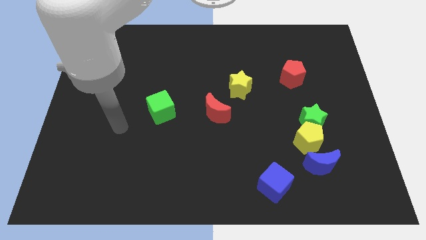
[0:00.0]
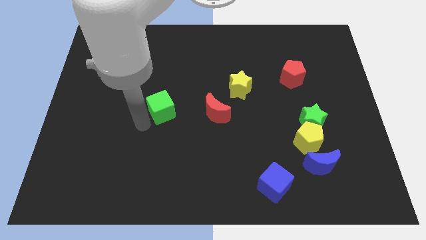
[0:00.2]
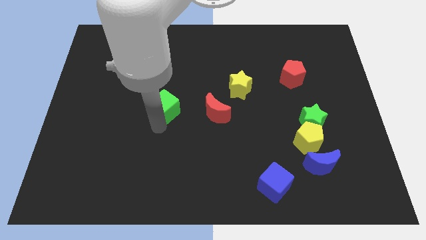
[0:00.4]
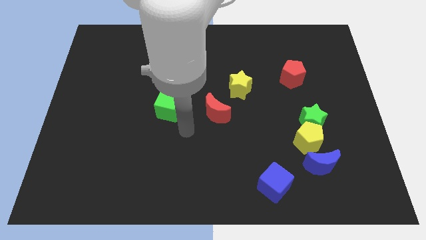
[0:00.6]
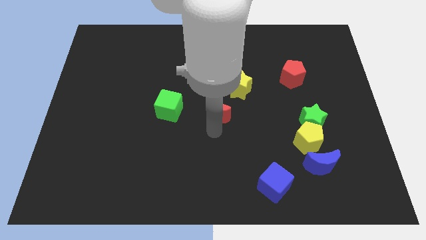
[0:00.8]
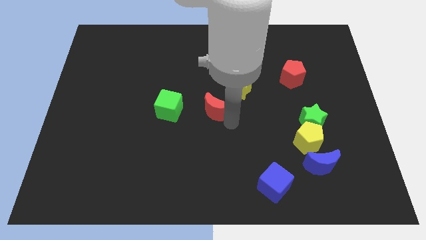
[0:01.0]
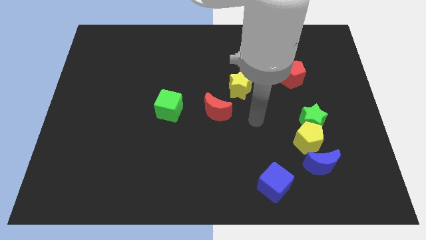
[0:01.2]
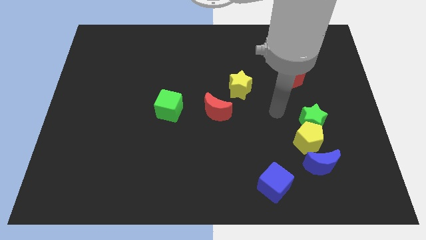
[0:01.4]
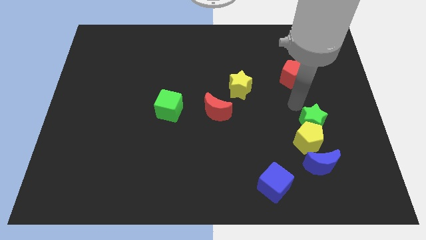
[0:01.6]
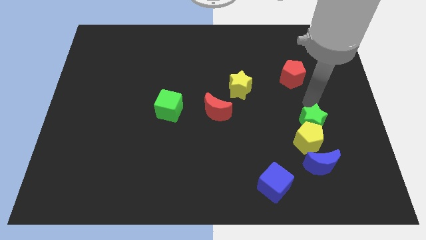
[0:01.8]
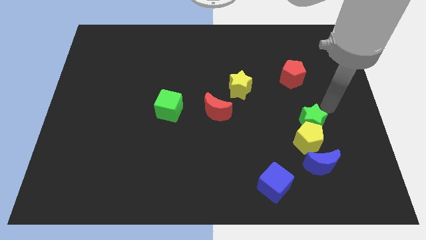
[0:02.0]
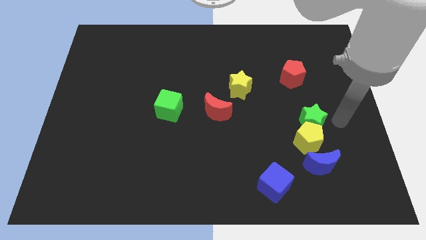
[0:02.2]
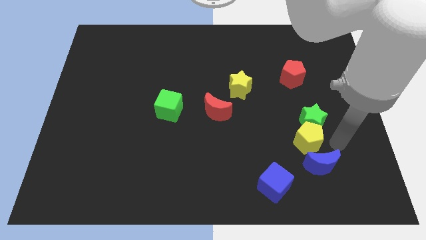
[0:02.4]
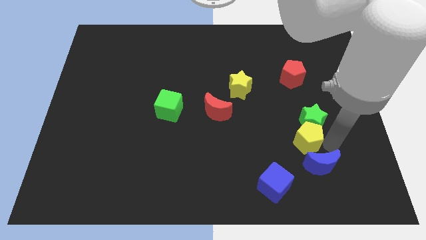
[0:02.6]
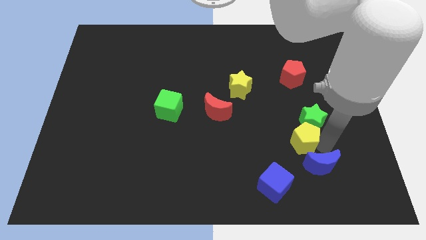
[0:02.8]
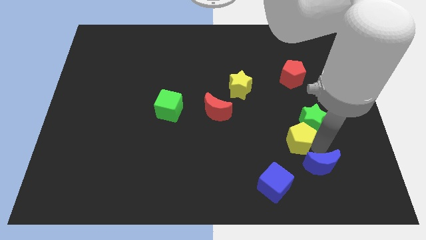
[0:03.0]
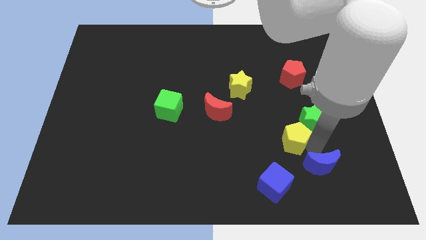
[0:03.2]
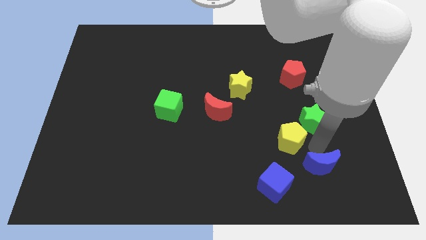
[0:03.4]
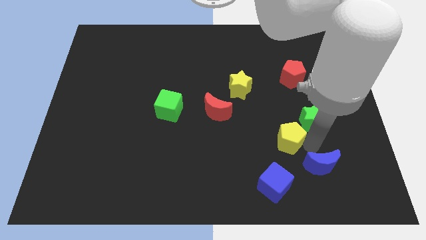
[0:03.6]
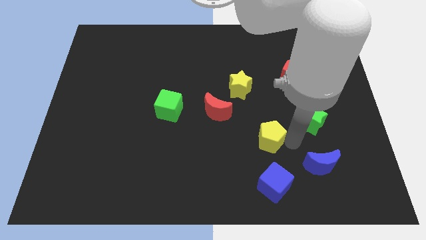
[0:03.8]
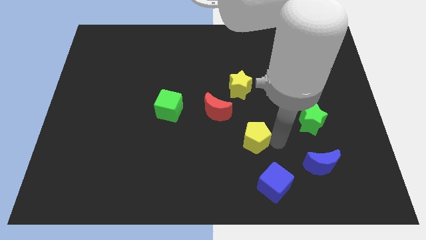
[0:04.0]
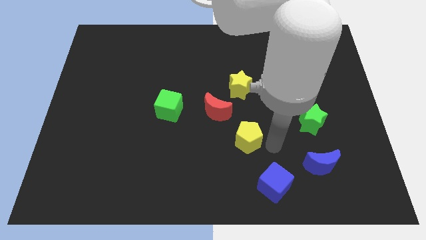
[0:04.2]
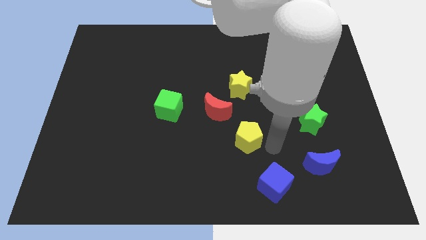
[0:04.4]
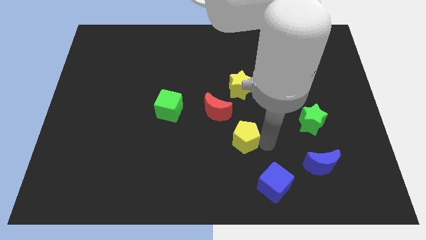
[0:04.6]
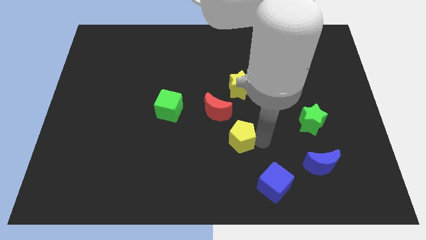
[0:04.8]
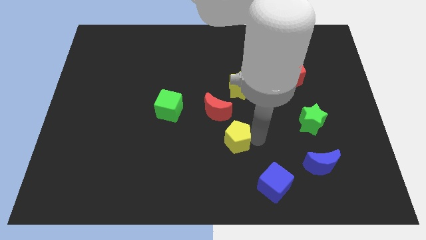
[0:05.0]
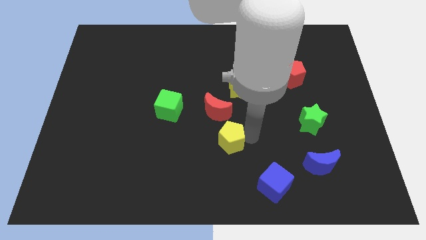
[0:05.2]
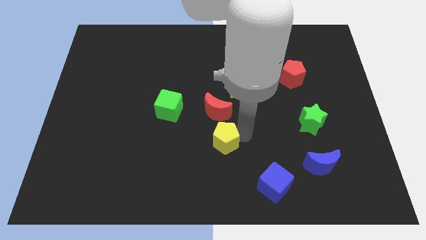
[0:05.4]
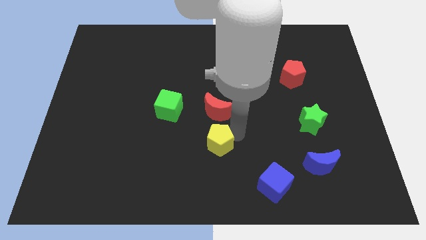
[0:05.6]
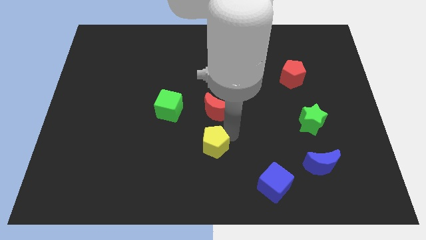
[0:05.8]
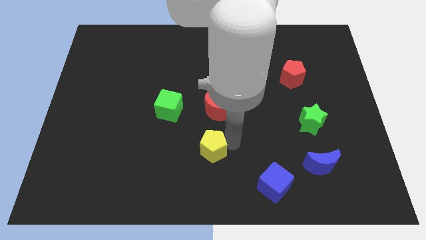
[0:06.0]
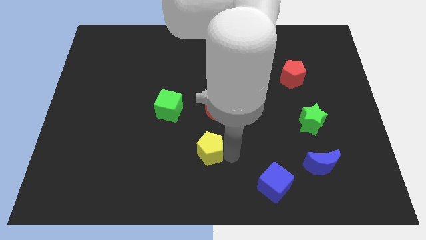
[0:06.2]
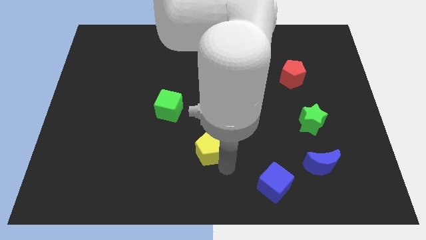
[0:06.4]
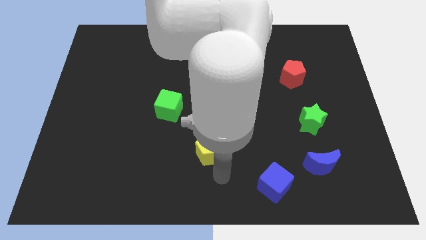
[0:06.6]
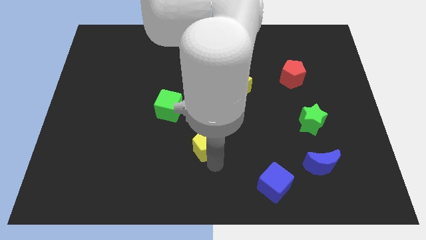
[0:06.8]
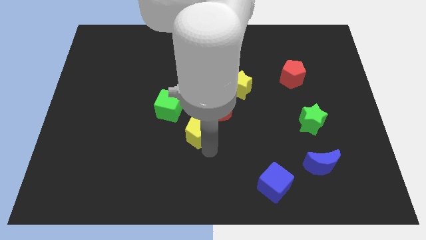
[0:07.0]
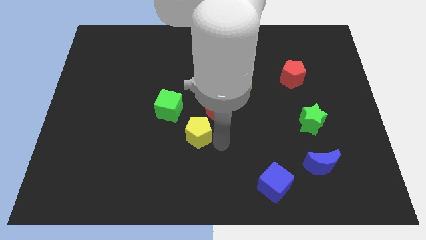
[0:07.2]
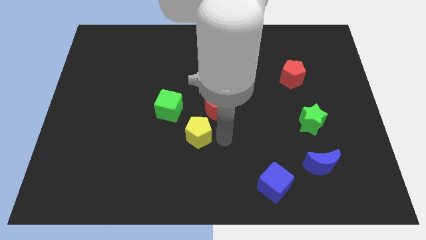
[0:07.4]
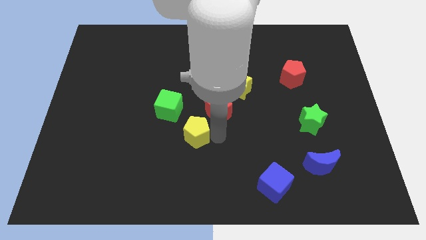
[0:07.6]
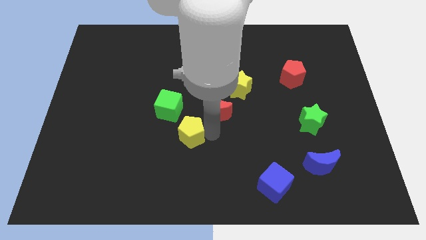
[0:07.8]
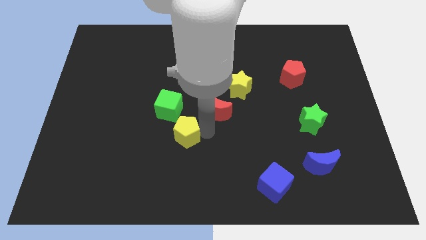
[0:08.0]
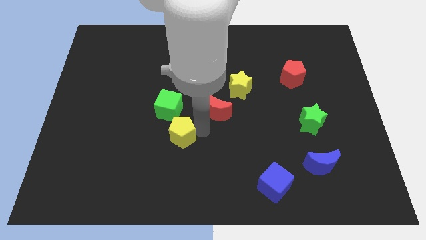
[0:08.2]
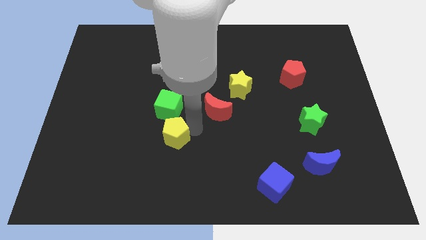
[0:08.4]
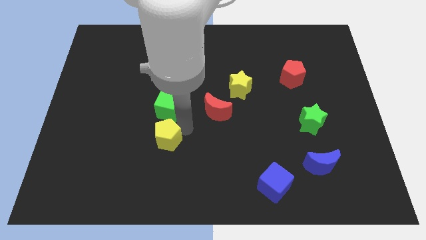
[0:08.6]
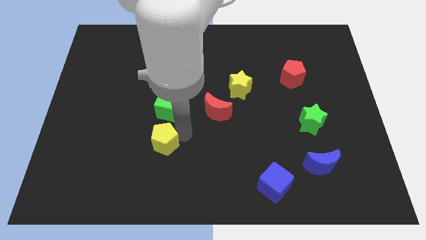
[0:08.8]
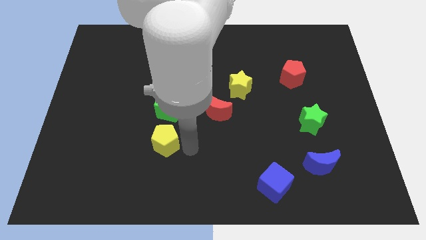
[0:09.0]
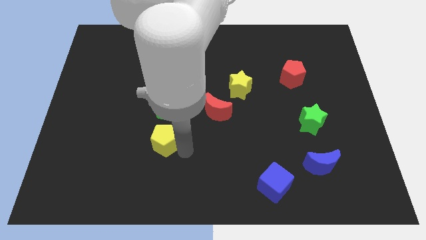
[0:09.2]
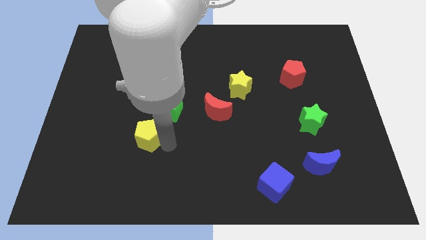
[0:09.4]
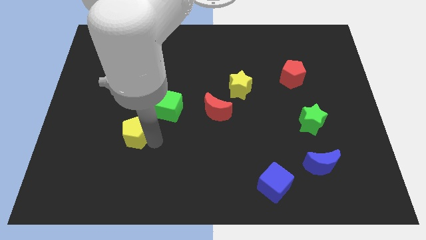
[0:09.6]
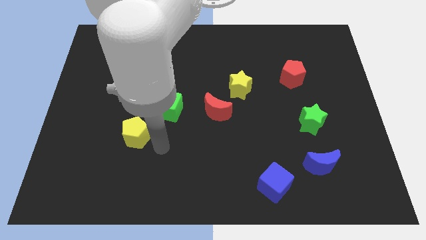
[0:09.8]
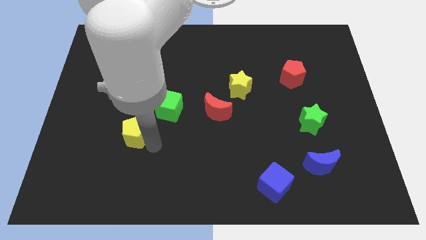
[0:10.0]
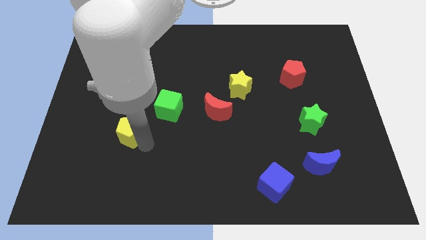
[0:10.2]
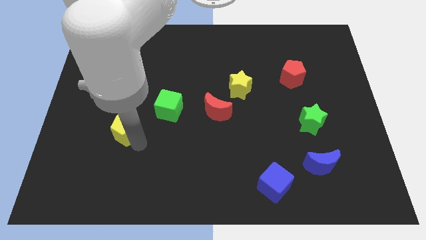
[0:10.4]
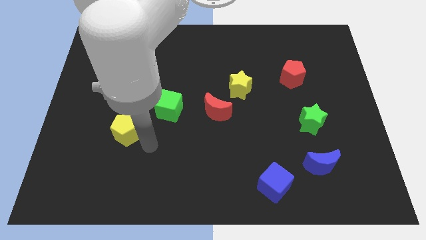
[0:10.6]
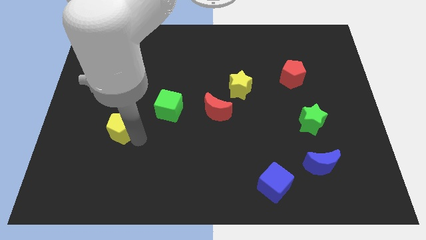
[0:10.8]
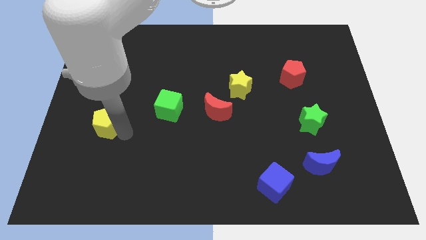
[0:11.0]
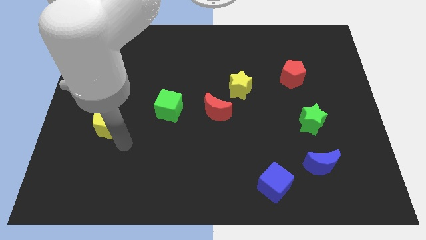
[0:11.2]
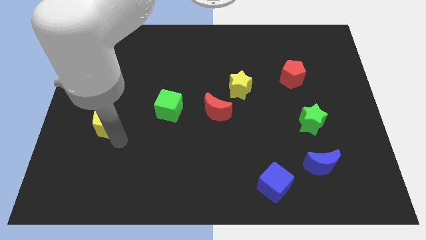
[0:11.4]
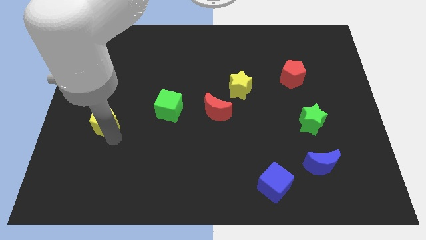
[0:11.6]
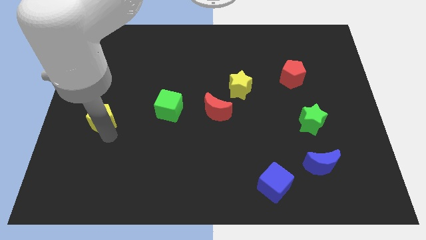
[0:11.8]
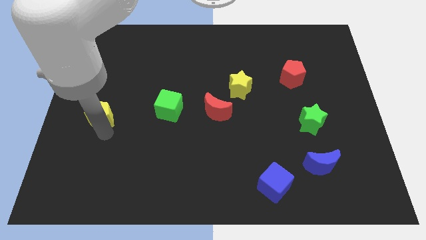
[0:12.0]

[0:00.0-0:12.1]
move the yellow pentagon to the left side of the board
